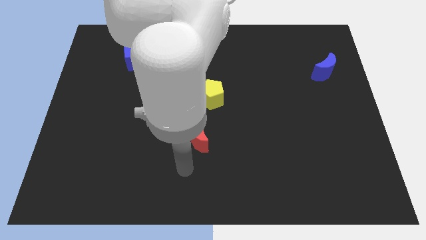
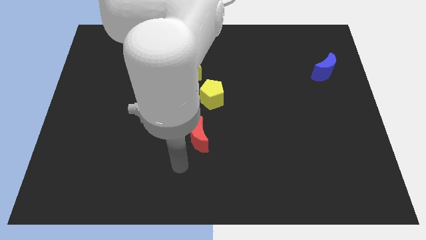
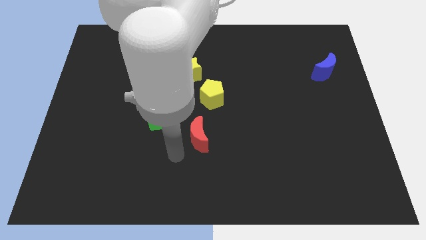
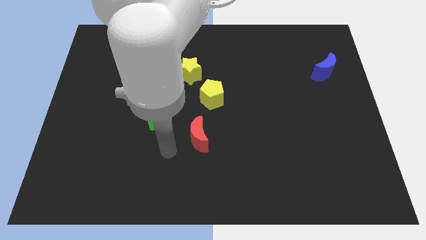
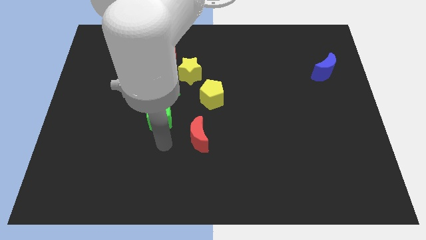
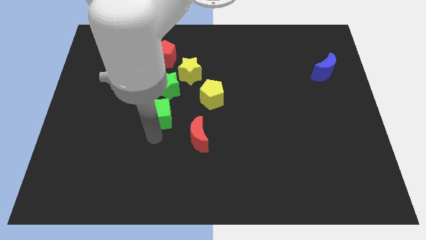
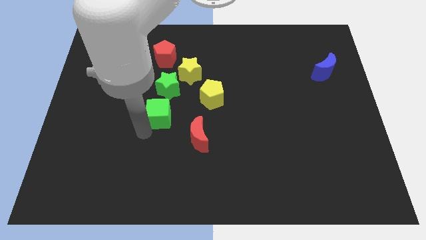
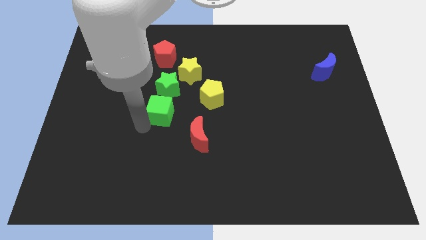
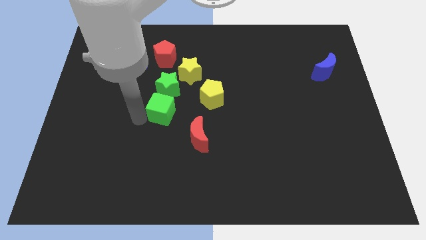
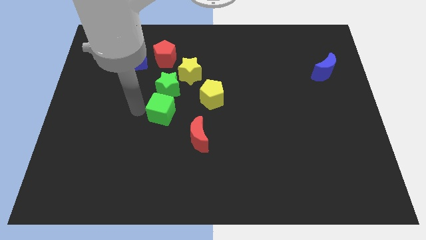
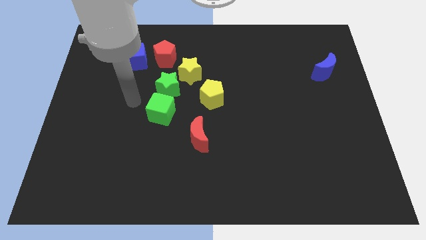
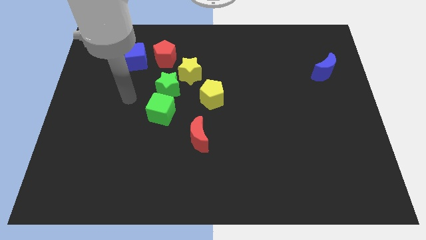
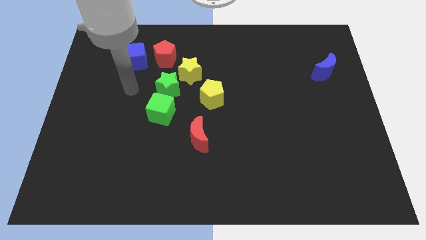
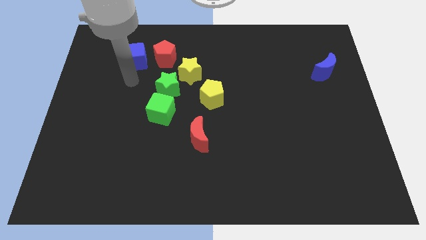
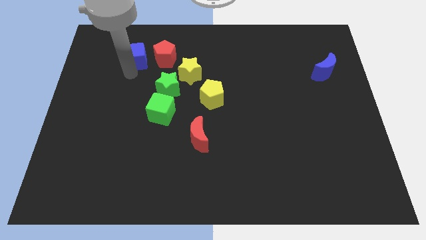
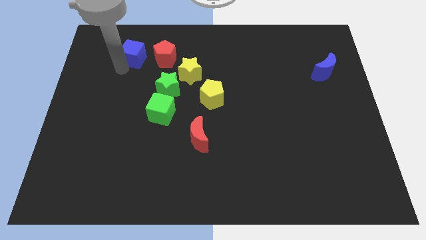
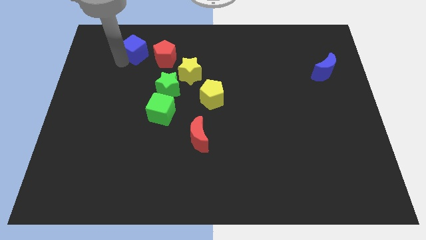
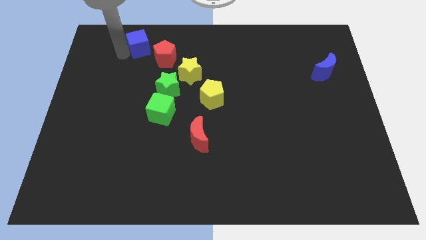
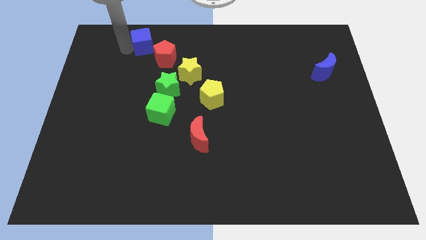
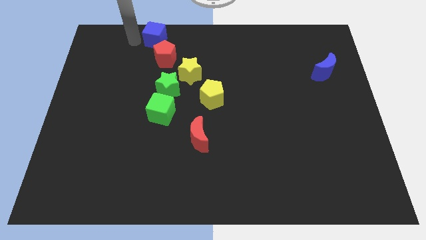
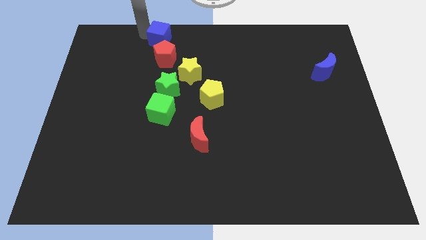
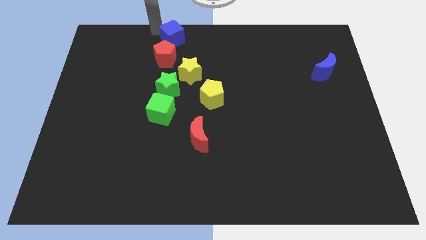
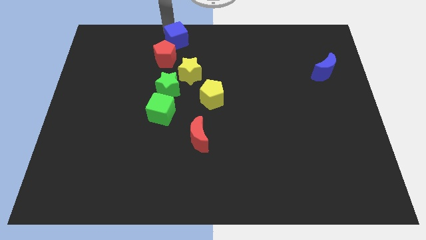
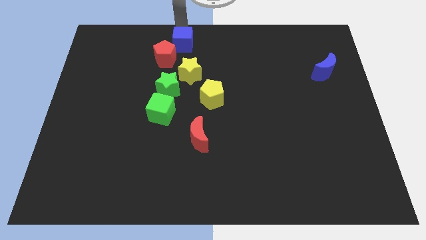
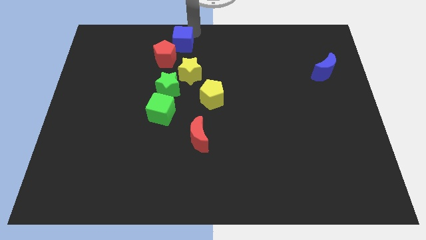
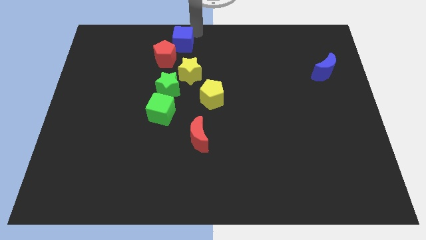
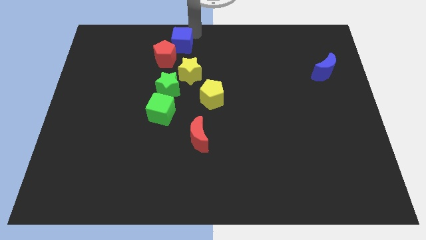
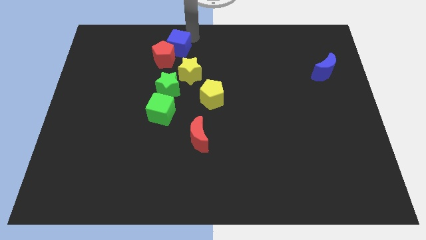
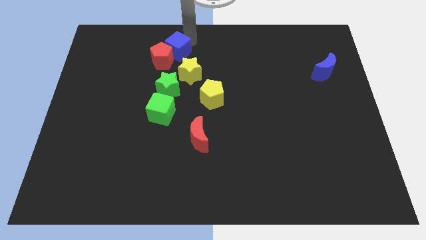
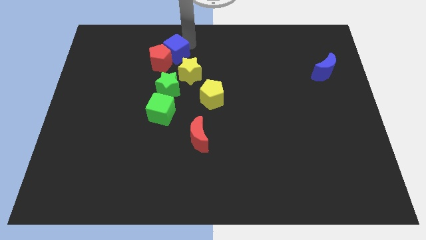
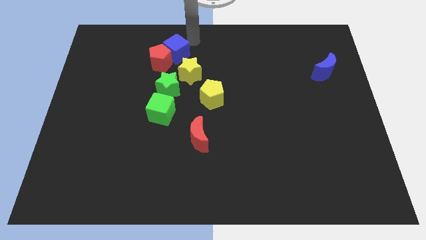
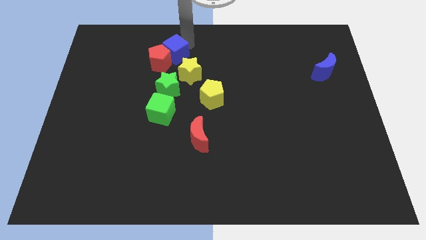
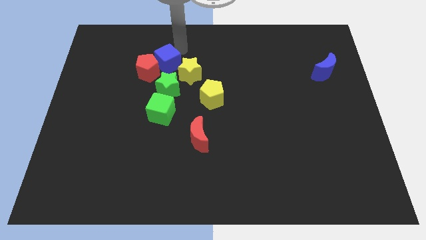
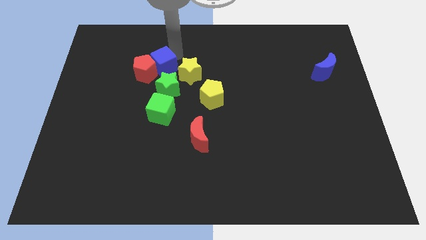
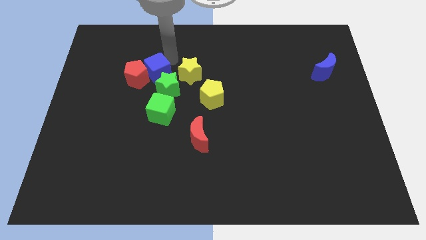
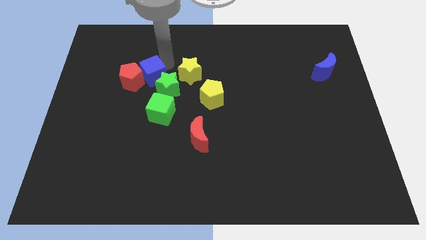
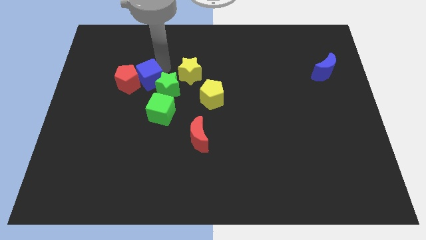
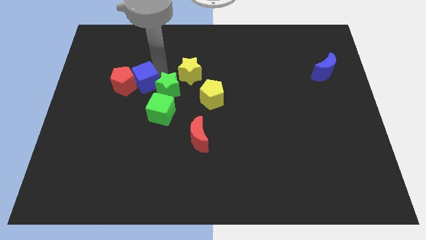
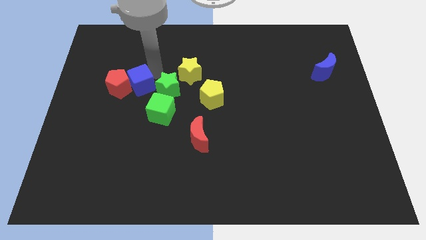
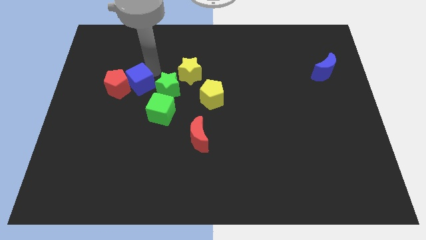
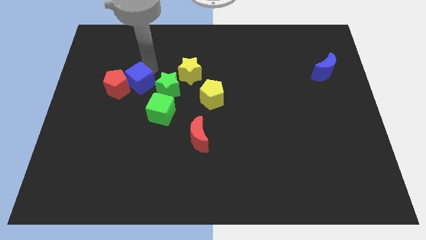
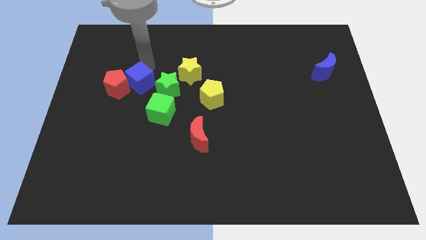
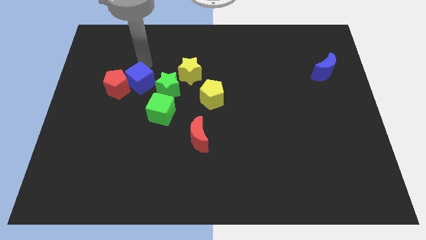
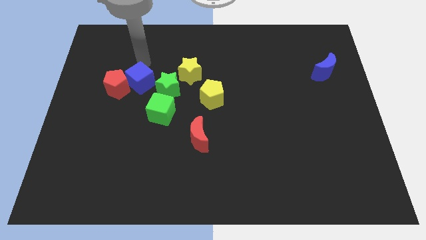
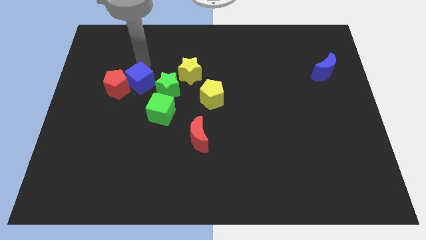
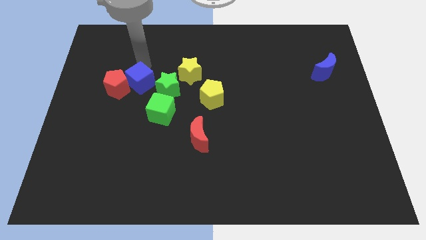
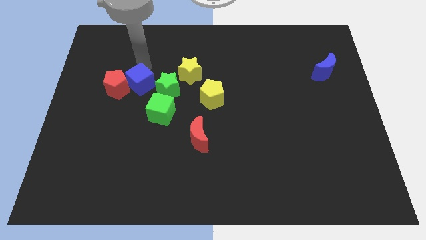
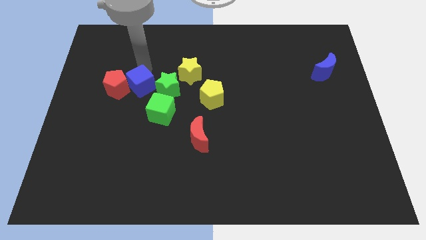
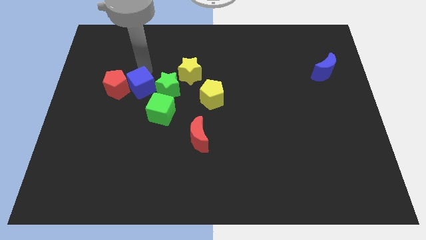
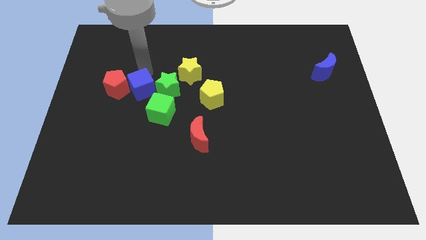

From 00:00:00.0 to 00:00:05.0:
slide the blue cube diagonally down and to the left of the green star

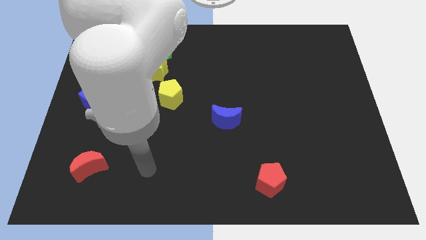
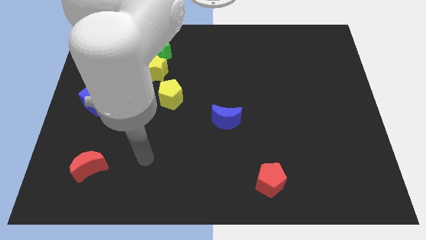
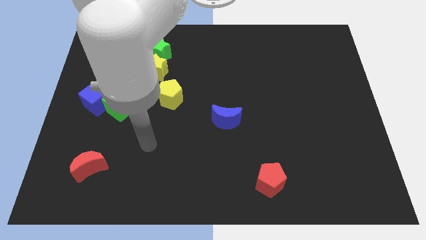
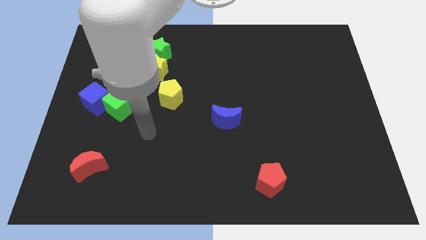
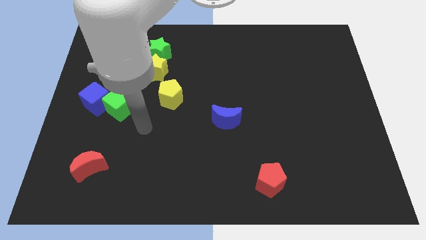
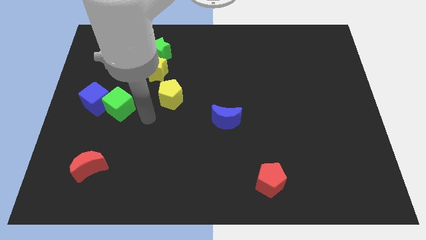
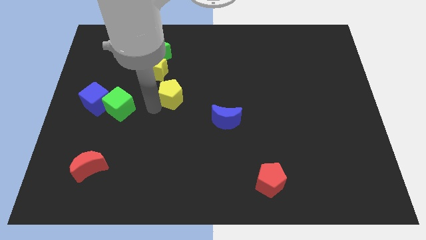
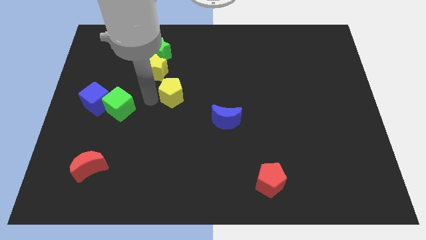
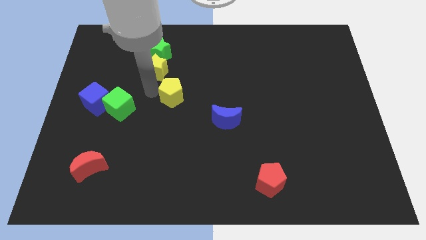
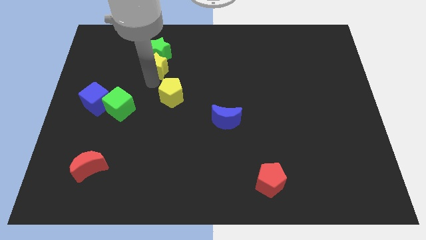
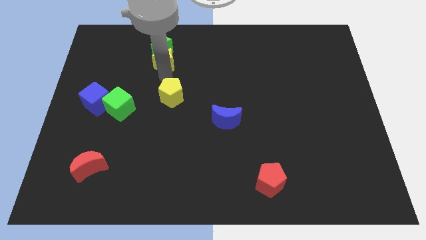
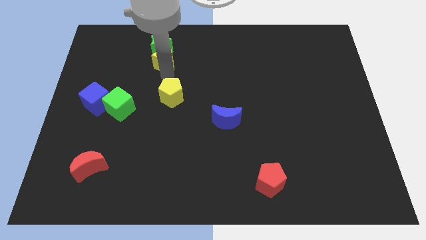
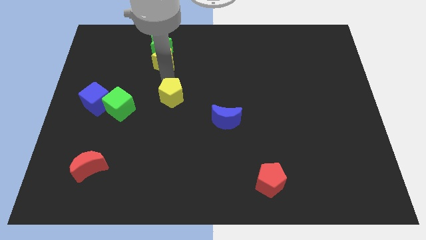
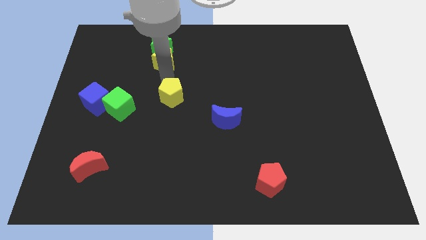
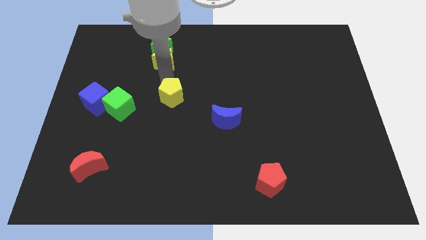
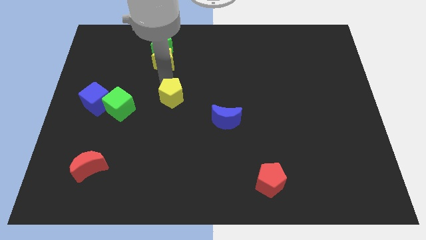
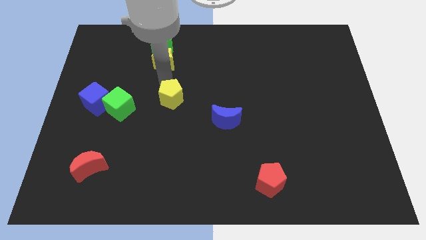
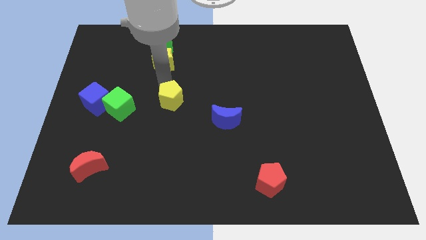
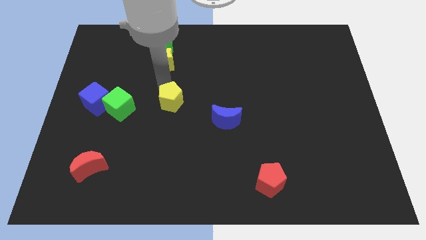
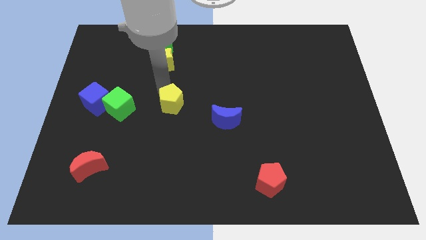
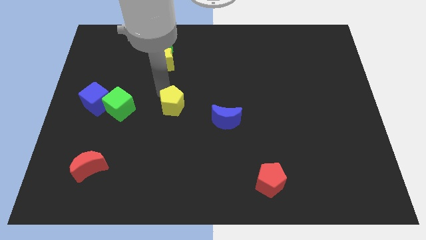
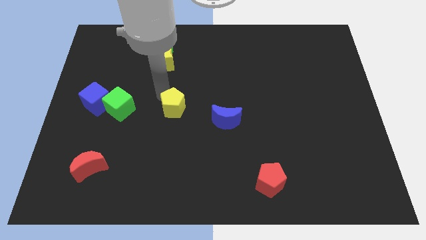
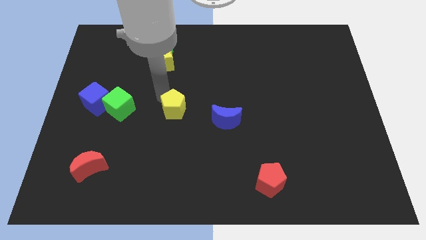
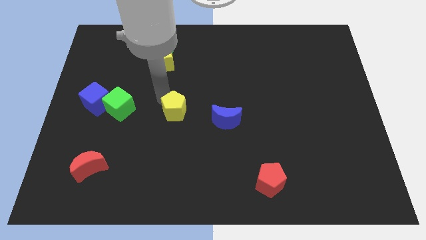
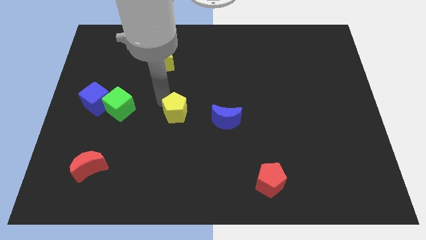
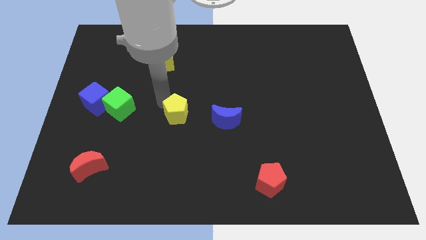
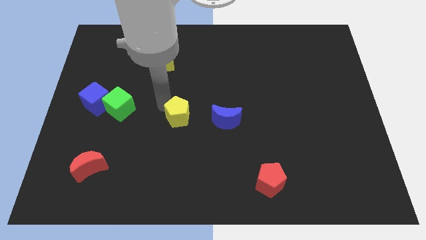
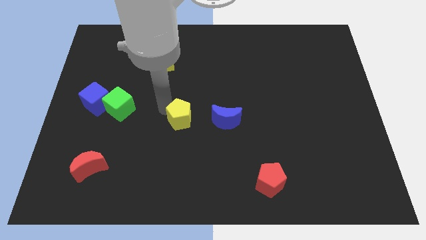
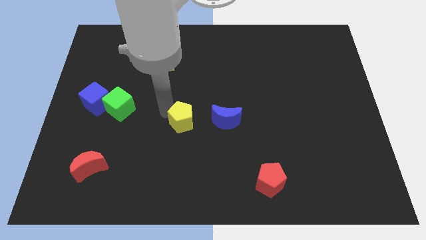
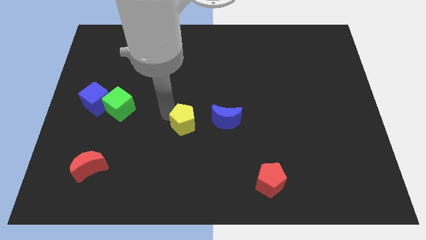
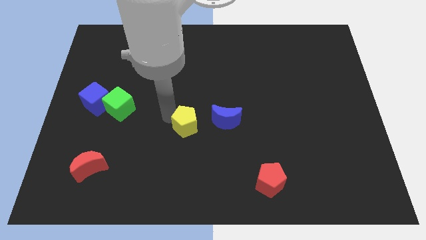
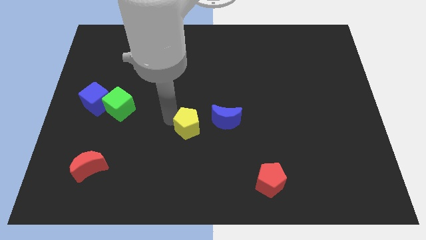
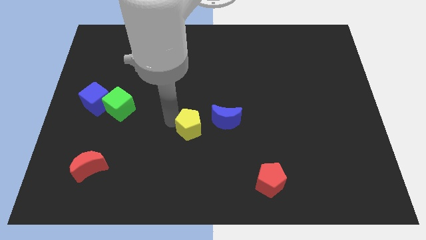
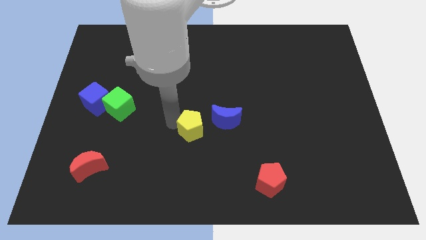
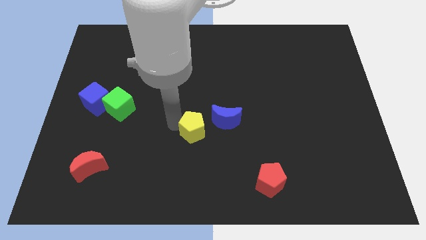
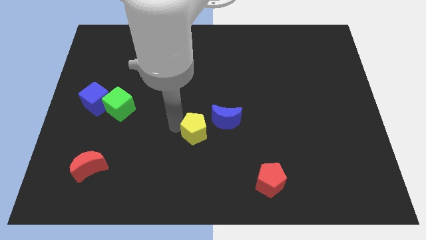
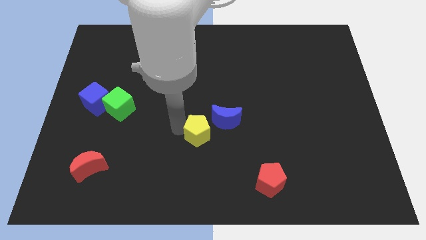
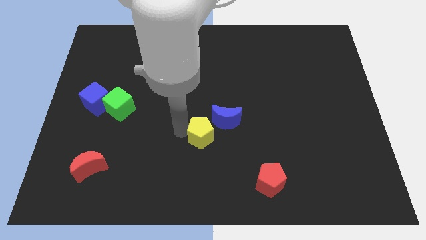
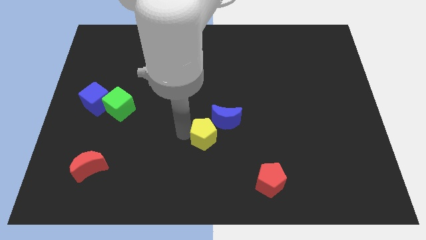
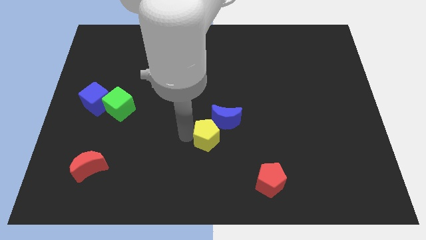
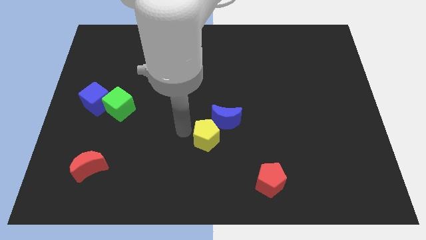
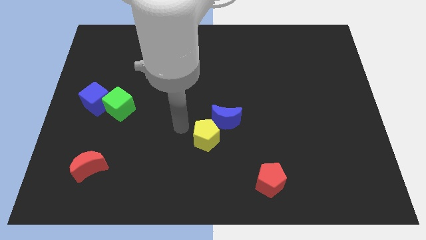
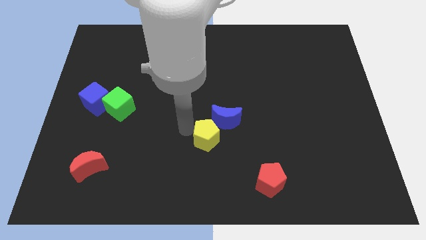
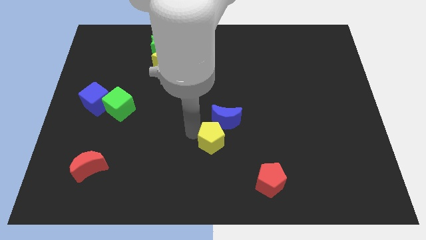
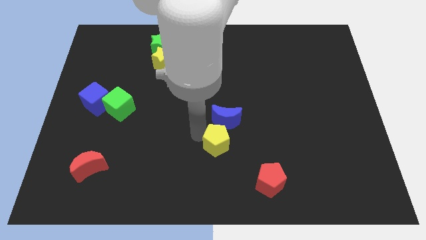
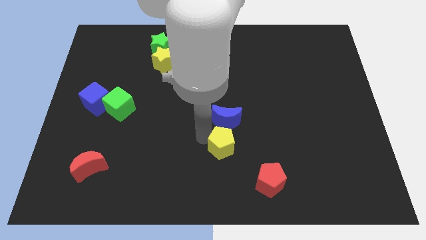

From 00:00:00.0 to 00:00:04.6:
move the yellow pentagon diagonally up and to the left of the red pentagon
